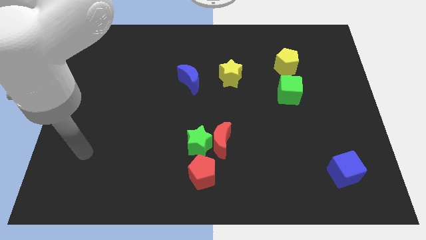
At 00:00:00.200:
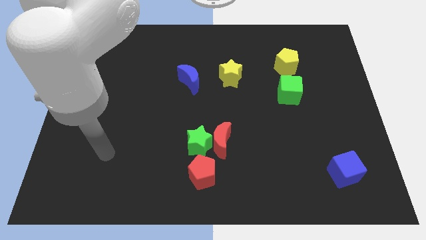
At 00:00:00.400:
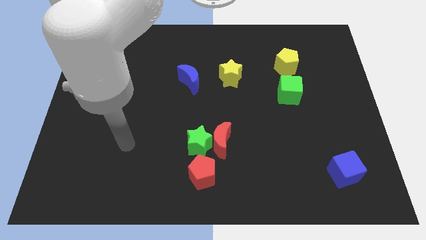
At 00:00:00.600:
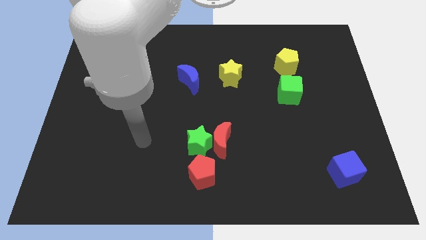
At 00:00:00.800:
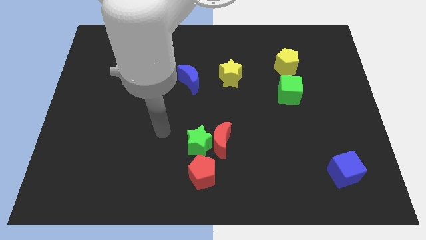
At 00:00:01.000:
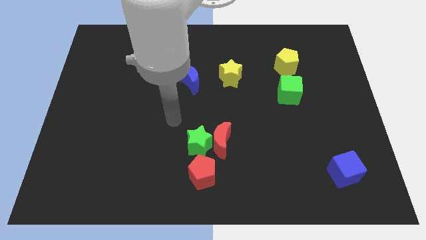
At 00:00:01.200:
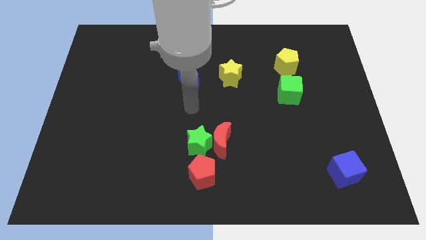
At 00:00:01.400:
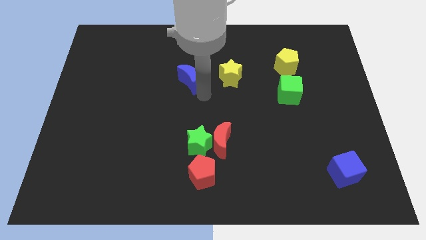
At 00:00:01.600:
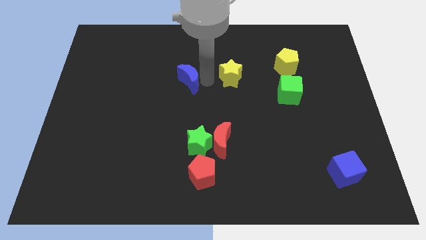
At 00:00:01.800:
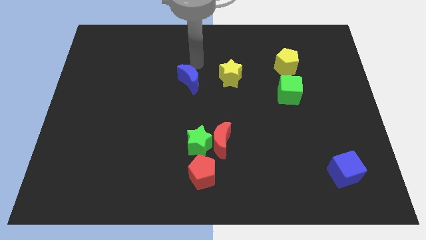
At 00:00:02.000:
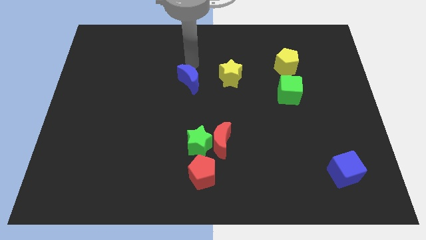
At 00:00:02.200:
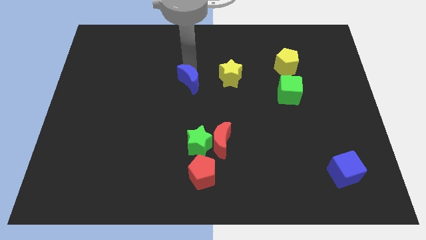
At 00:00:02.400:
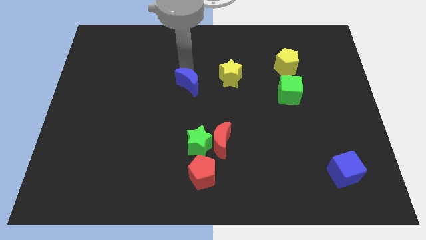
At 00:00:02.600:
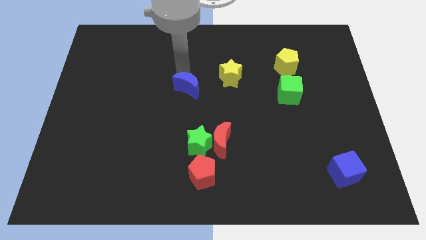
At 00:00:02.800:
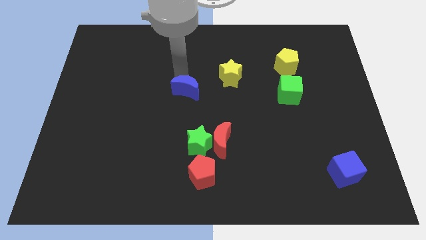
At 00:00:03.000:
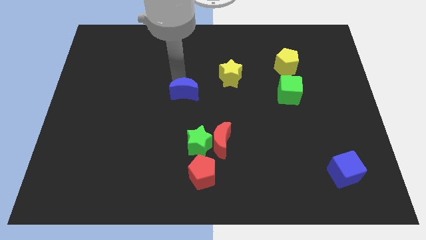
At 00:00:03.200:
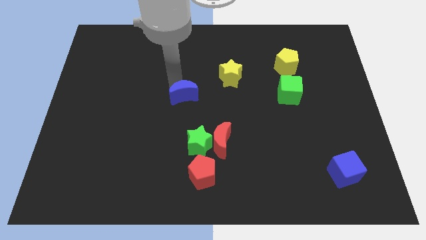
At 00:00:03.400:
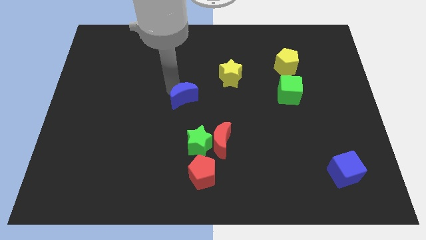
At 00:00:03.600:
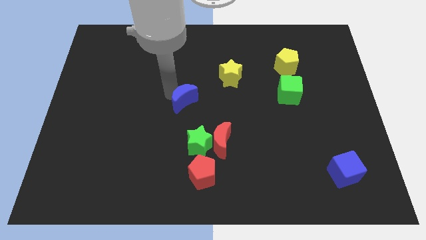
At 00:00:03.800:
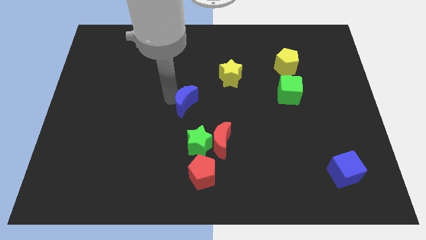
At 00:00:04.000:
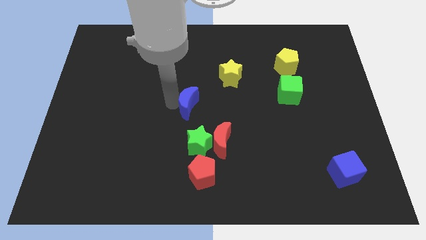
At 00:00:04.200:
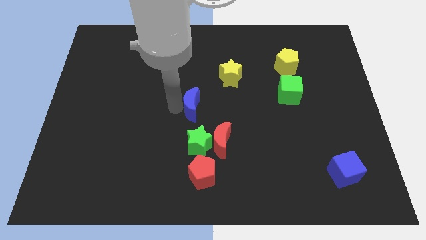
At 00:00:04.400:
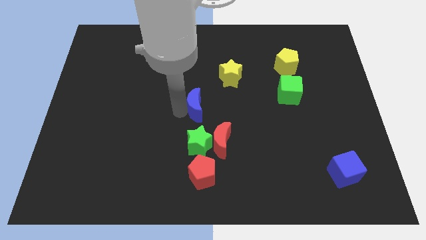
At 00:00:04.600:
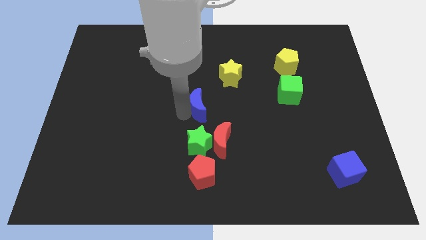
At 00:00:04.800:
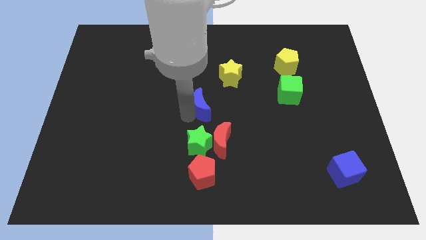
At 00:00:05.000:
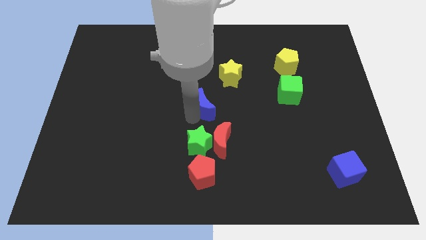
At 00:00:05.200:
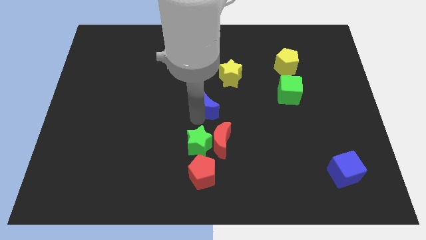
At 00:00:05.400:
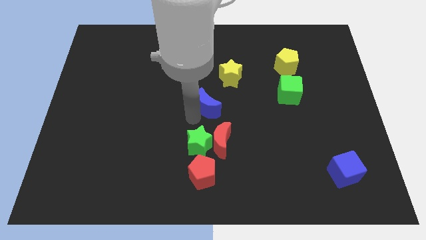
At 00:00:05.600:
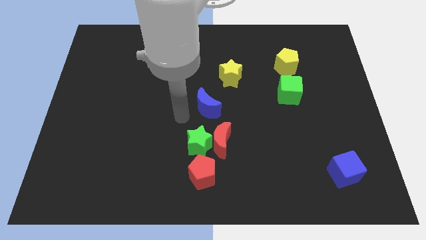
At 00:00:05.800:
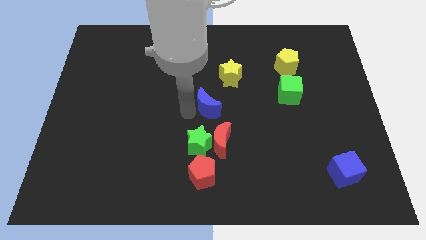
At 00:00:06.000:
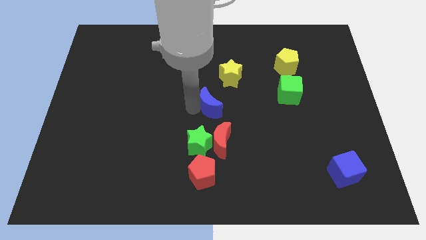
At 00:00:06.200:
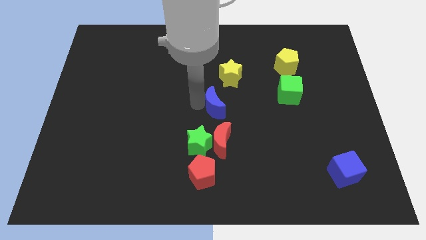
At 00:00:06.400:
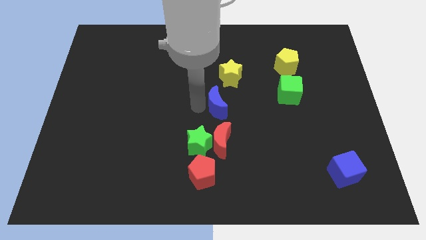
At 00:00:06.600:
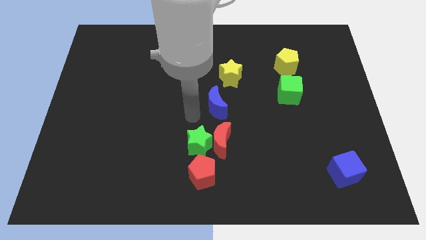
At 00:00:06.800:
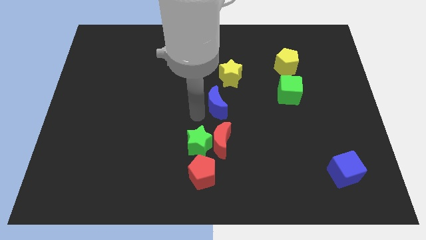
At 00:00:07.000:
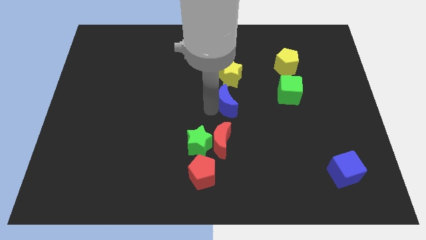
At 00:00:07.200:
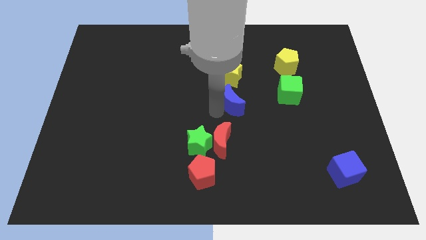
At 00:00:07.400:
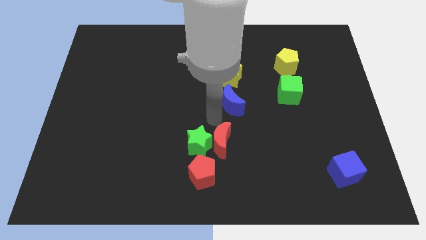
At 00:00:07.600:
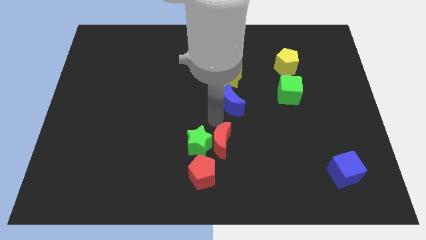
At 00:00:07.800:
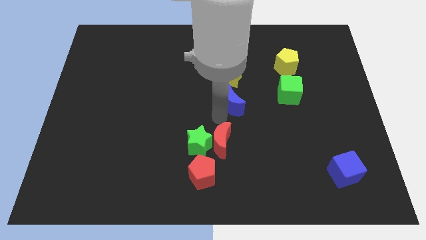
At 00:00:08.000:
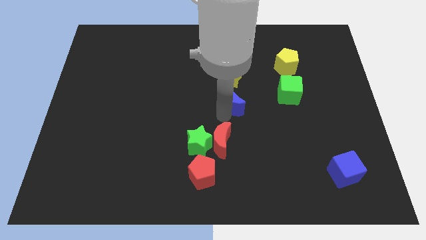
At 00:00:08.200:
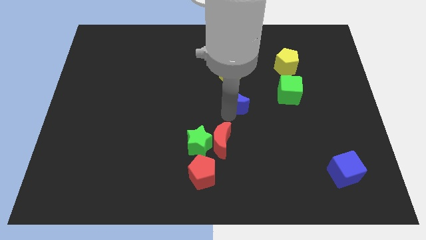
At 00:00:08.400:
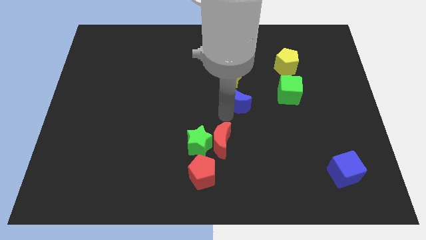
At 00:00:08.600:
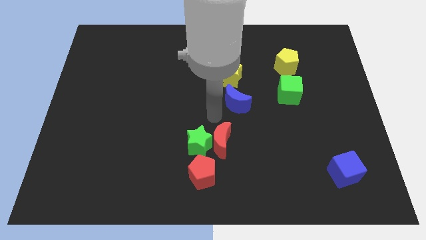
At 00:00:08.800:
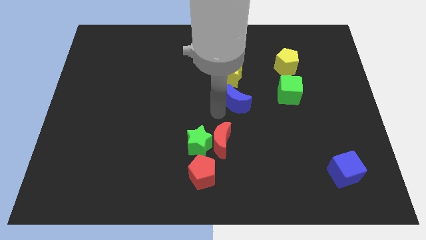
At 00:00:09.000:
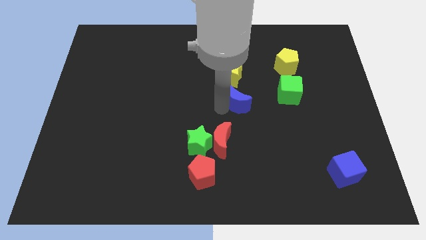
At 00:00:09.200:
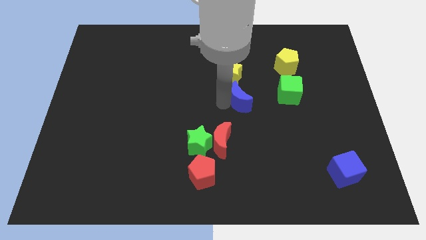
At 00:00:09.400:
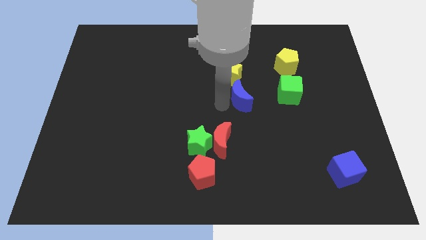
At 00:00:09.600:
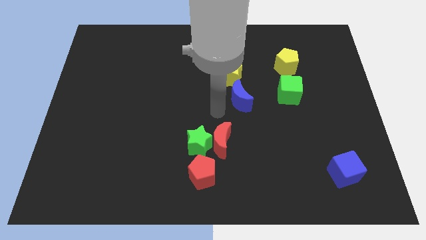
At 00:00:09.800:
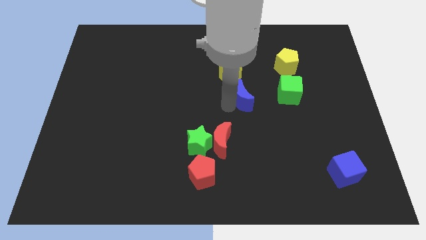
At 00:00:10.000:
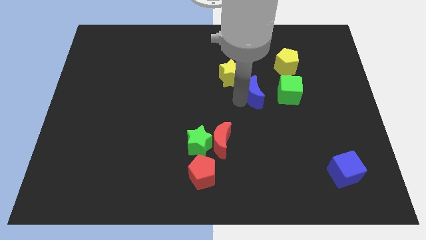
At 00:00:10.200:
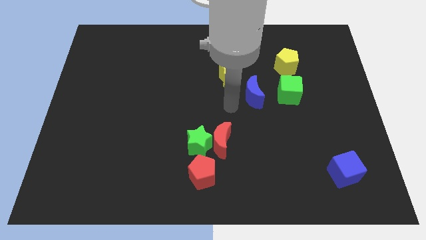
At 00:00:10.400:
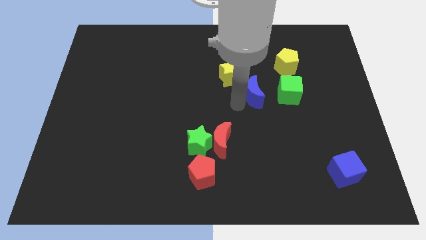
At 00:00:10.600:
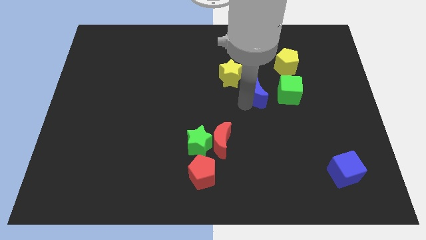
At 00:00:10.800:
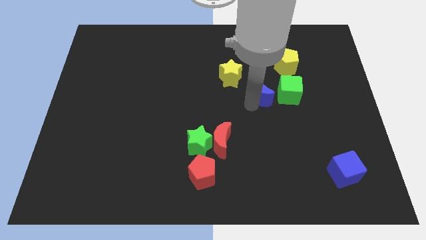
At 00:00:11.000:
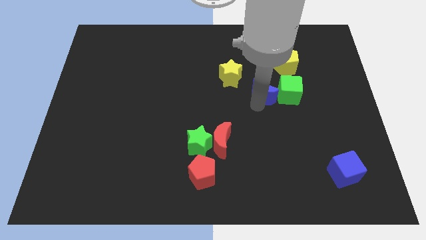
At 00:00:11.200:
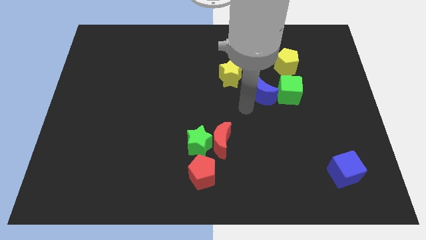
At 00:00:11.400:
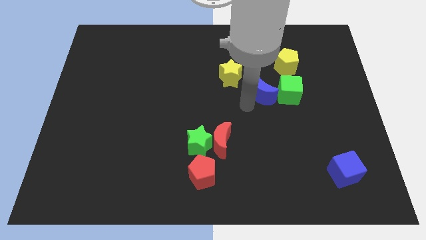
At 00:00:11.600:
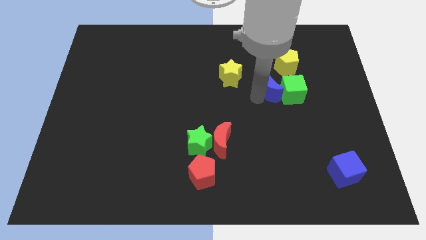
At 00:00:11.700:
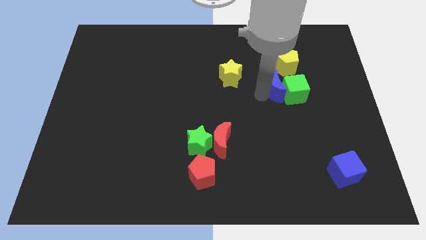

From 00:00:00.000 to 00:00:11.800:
move the blue moon right

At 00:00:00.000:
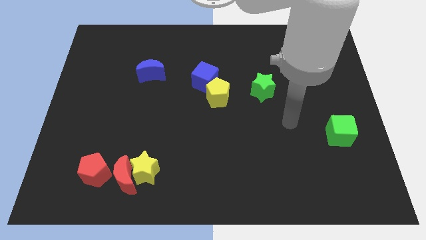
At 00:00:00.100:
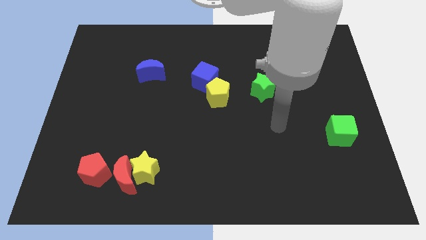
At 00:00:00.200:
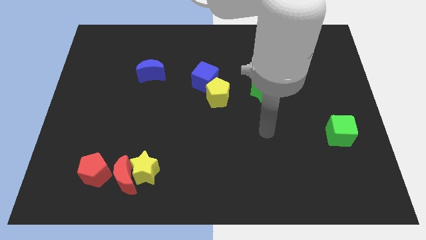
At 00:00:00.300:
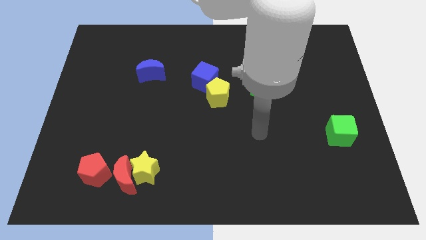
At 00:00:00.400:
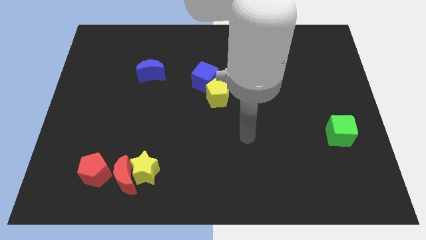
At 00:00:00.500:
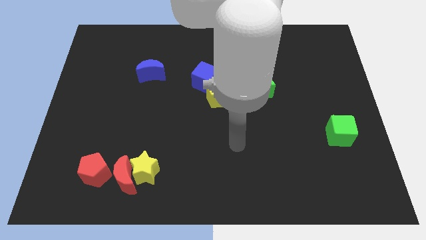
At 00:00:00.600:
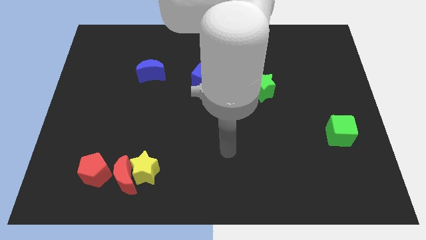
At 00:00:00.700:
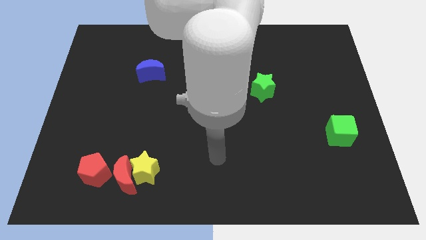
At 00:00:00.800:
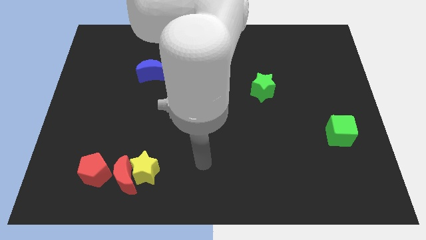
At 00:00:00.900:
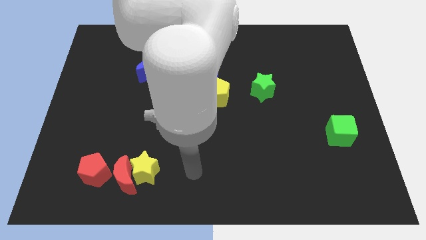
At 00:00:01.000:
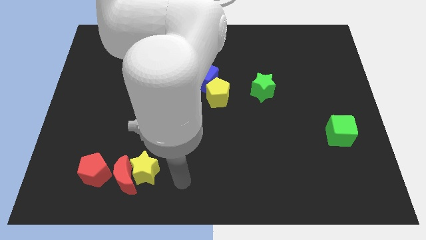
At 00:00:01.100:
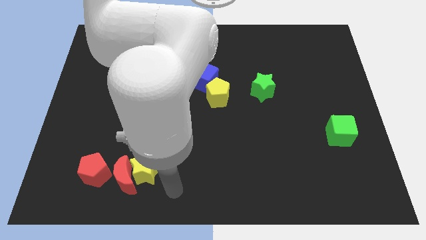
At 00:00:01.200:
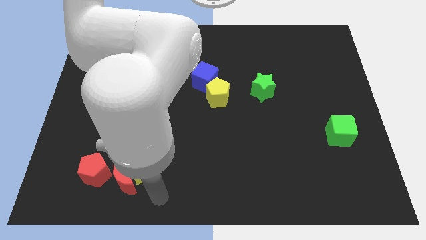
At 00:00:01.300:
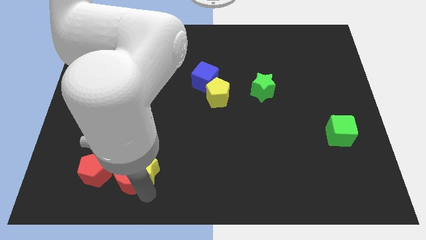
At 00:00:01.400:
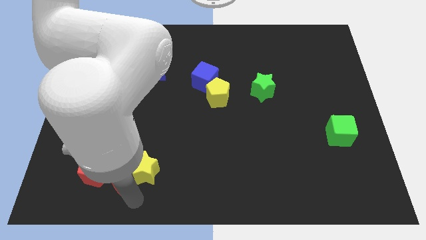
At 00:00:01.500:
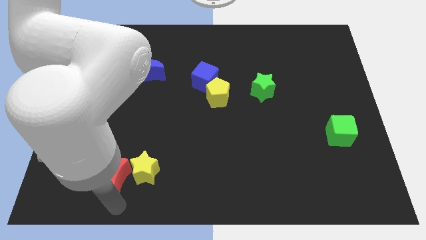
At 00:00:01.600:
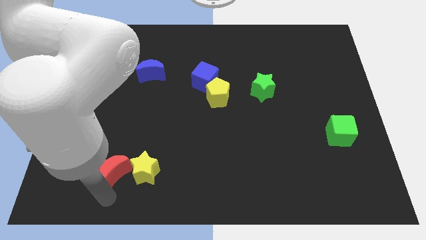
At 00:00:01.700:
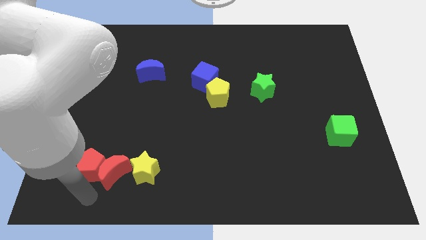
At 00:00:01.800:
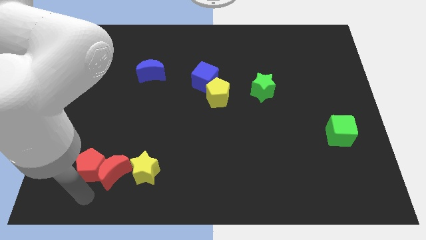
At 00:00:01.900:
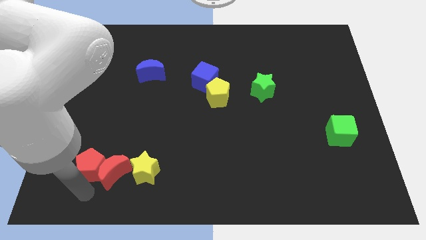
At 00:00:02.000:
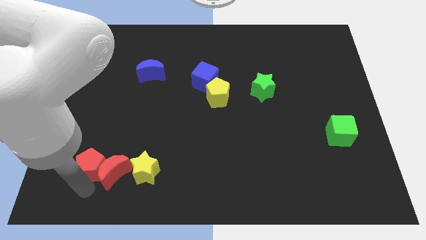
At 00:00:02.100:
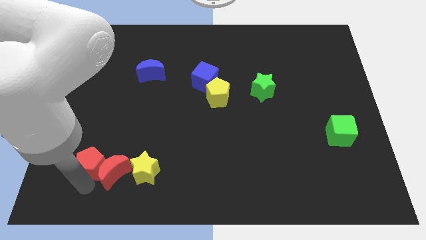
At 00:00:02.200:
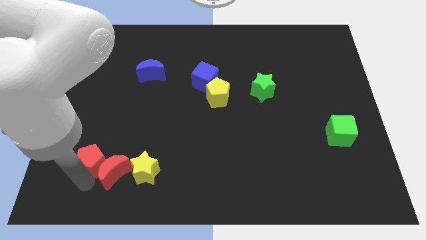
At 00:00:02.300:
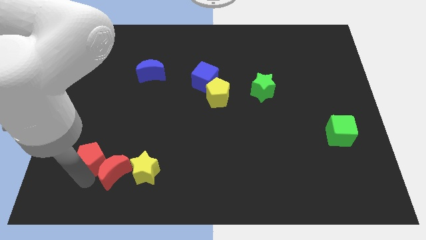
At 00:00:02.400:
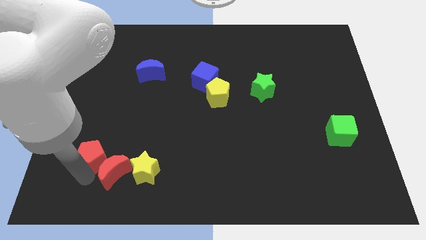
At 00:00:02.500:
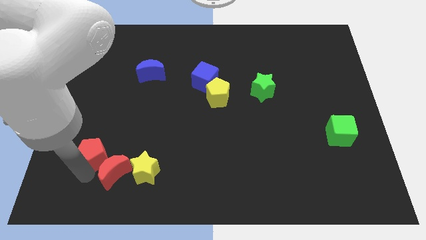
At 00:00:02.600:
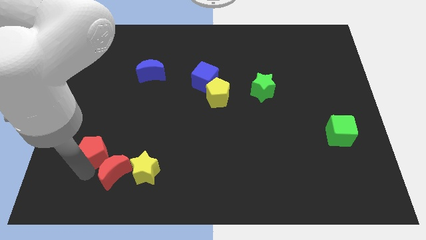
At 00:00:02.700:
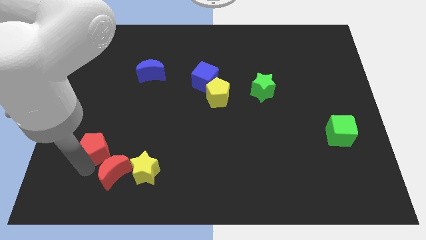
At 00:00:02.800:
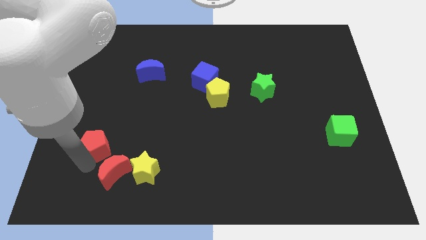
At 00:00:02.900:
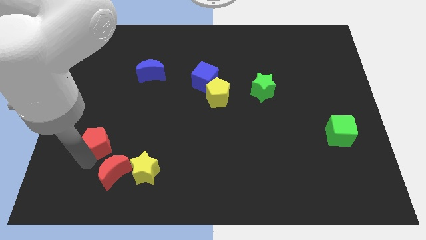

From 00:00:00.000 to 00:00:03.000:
push the red pentagon up somewhat
